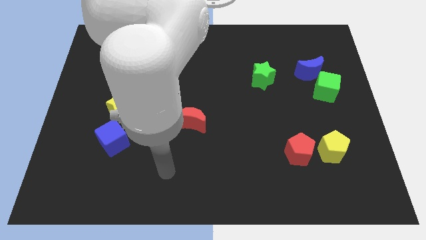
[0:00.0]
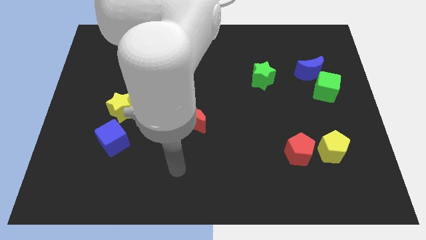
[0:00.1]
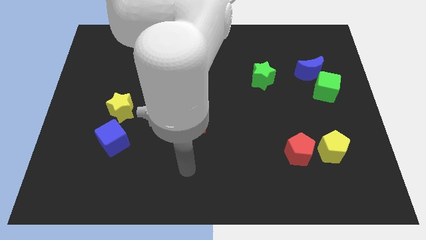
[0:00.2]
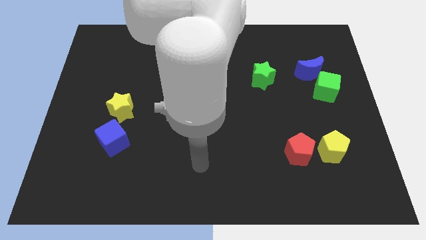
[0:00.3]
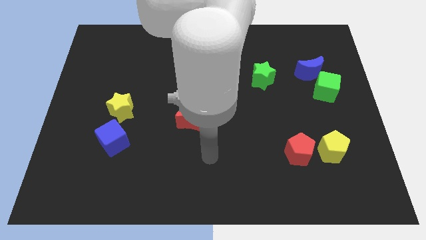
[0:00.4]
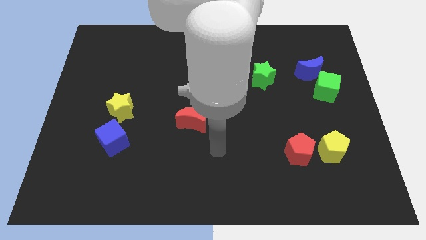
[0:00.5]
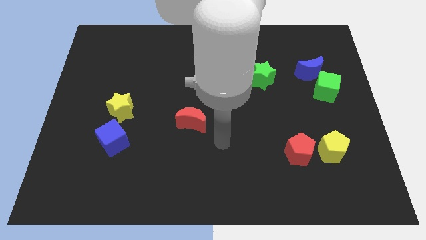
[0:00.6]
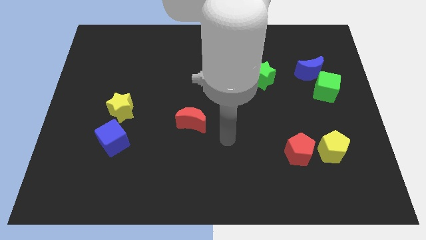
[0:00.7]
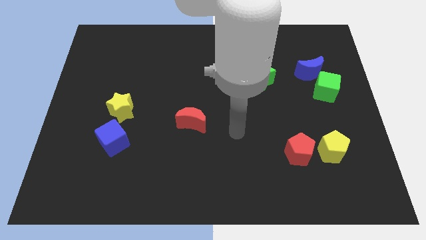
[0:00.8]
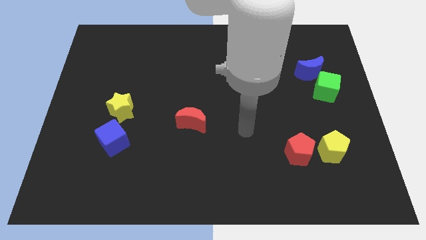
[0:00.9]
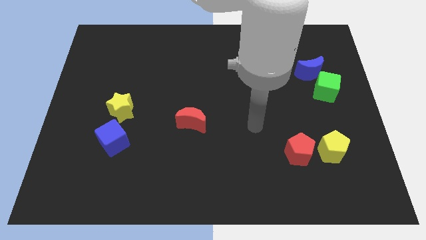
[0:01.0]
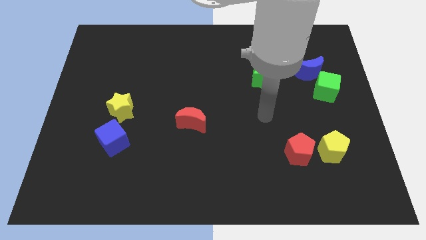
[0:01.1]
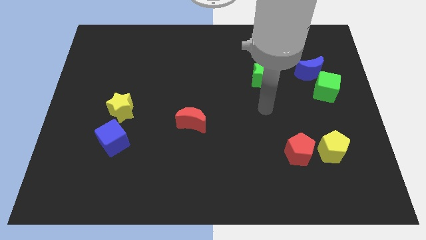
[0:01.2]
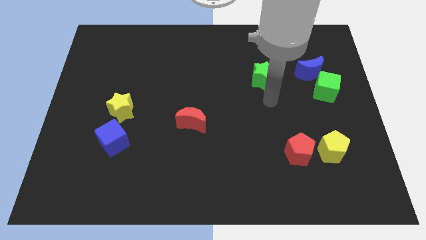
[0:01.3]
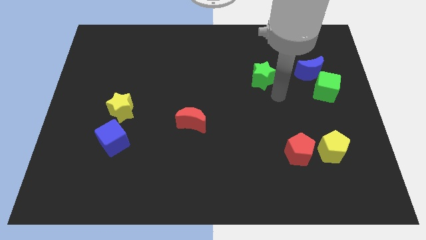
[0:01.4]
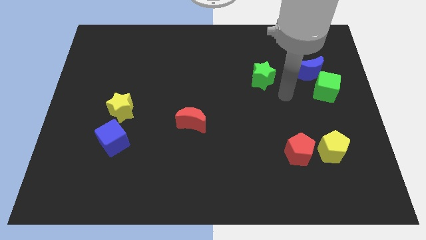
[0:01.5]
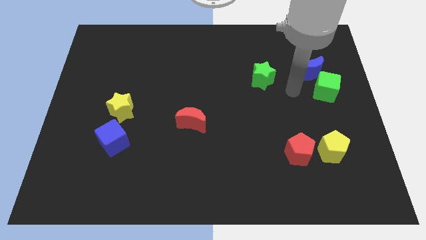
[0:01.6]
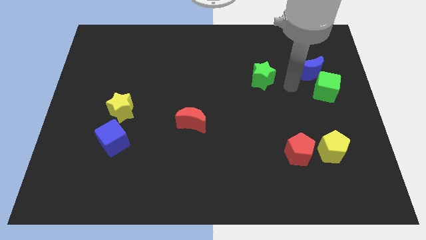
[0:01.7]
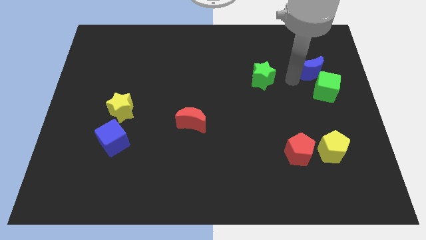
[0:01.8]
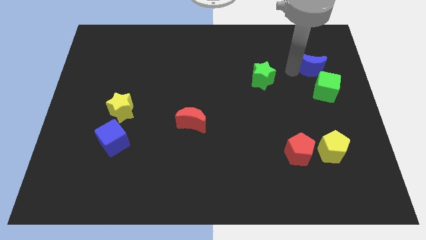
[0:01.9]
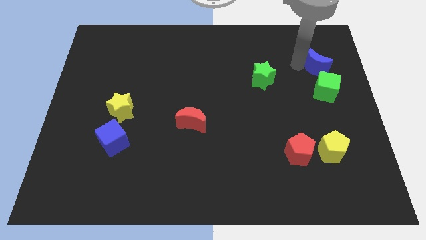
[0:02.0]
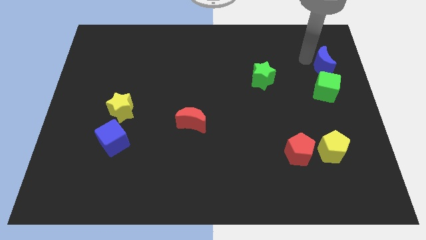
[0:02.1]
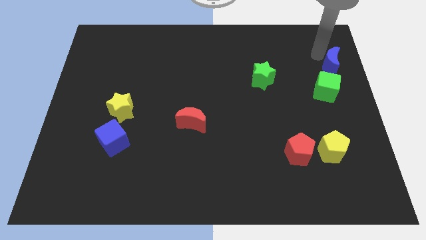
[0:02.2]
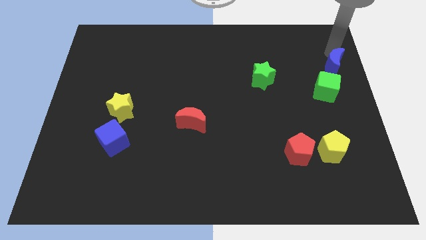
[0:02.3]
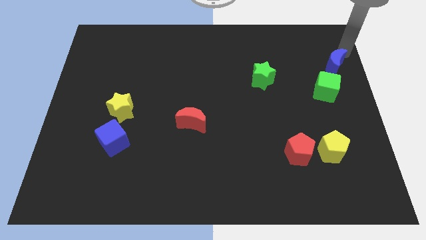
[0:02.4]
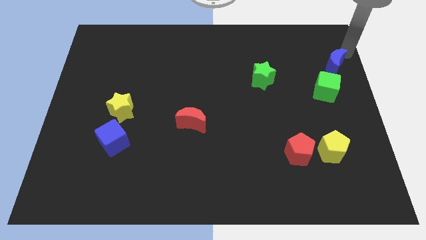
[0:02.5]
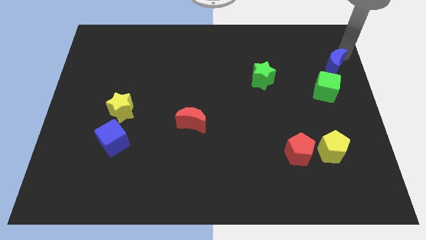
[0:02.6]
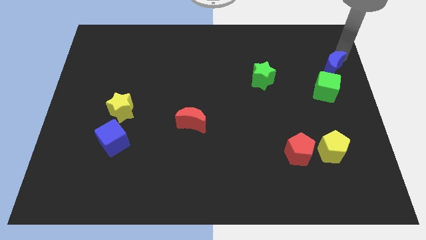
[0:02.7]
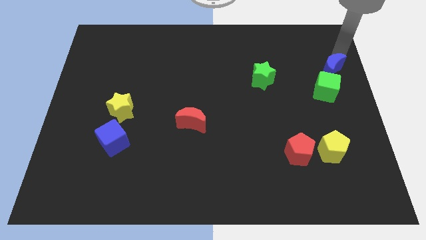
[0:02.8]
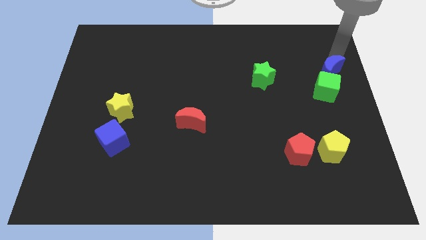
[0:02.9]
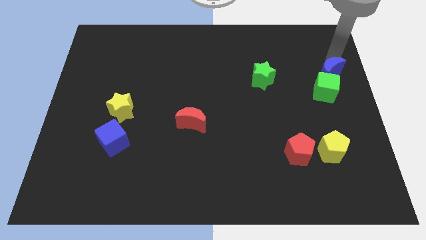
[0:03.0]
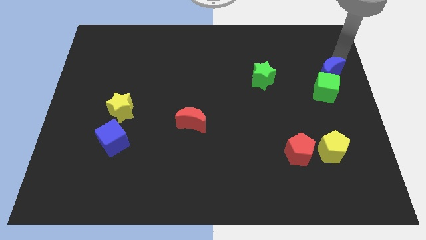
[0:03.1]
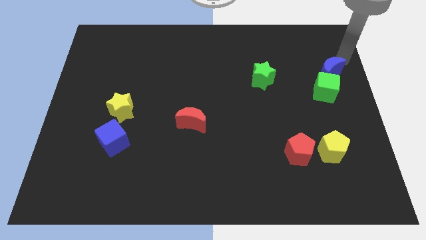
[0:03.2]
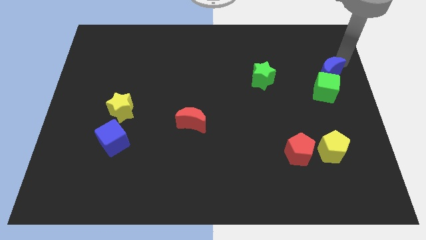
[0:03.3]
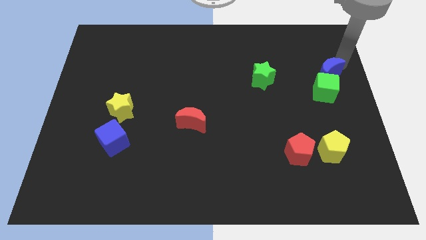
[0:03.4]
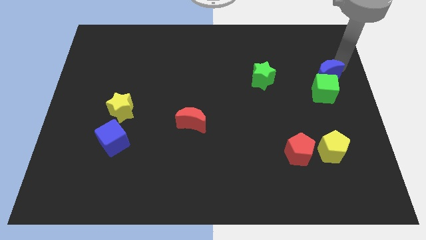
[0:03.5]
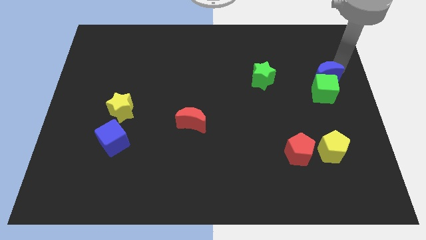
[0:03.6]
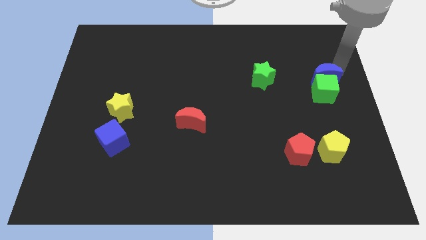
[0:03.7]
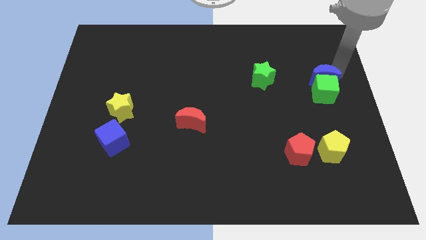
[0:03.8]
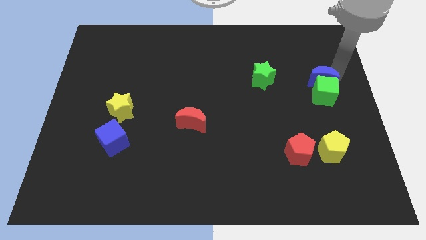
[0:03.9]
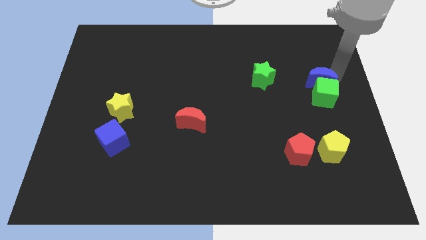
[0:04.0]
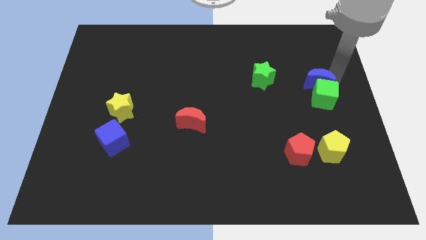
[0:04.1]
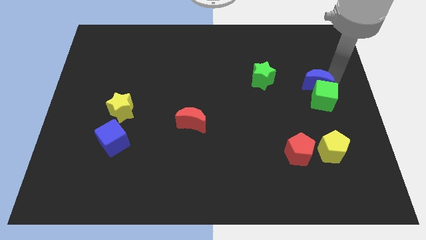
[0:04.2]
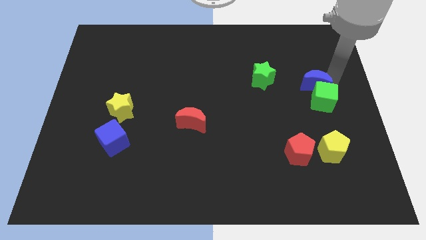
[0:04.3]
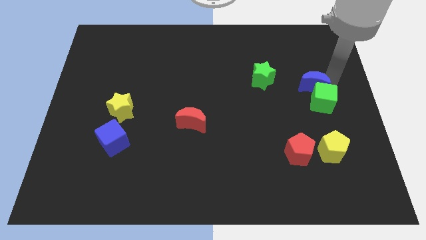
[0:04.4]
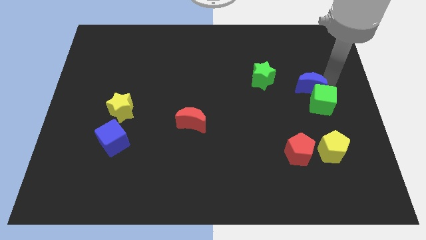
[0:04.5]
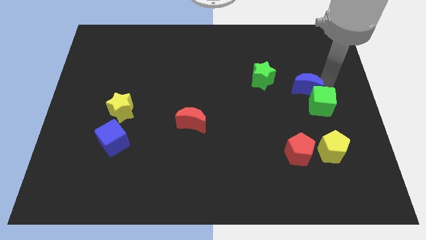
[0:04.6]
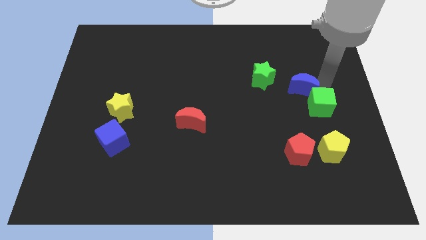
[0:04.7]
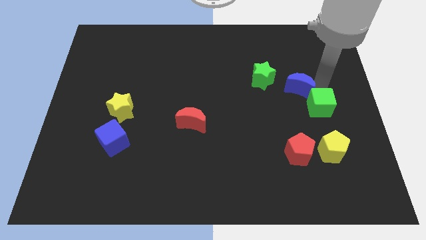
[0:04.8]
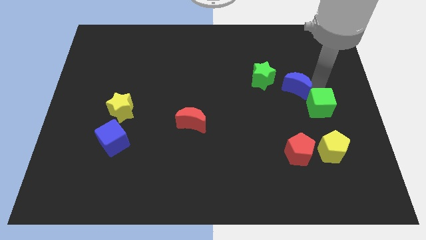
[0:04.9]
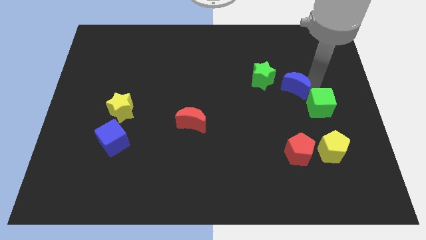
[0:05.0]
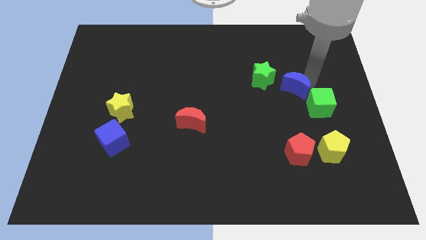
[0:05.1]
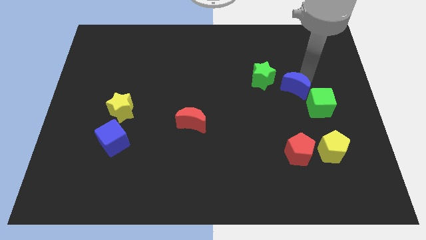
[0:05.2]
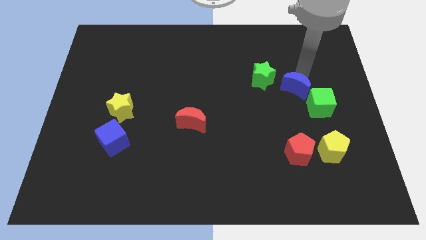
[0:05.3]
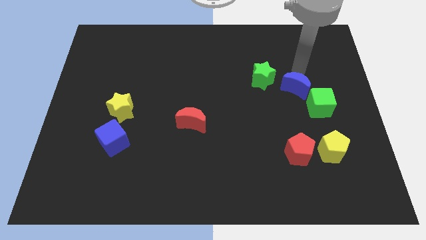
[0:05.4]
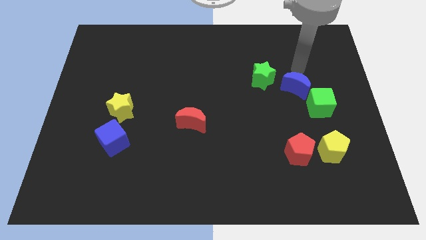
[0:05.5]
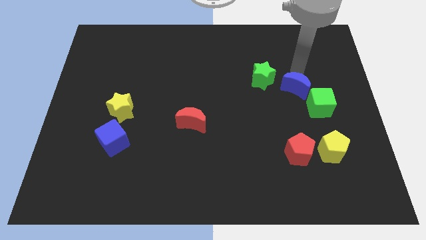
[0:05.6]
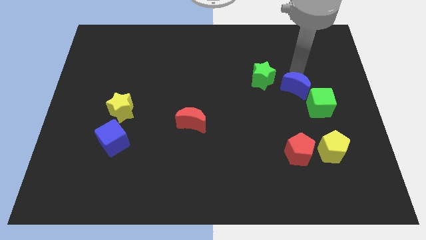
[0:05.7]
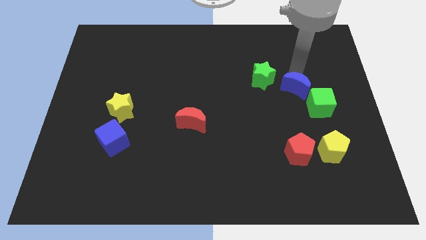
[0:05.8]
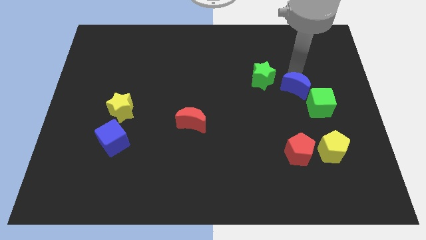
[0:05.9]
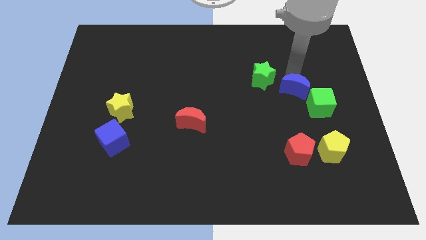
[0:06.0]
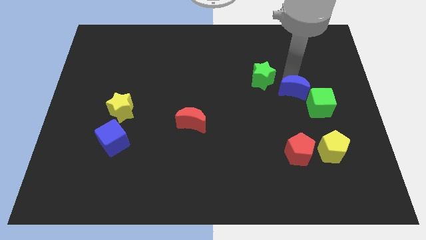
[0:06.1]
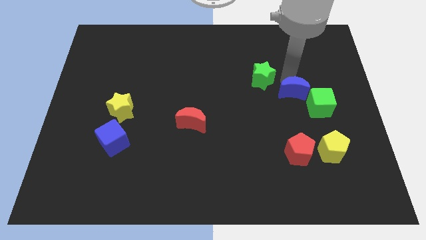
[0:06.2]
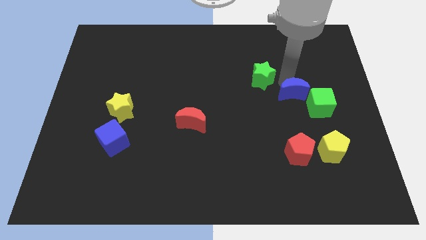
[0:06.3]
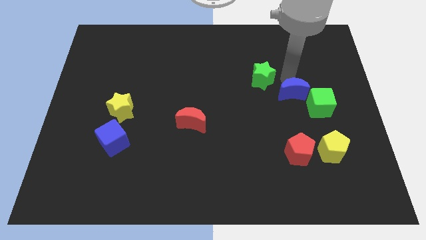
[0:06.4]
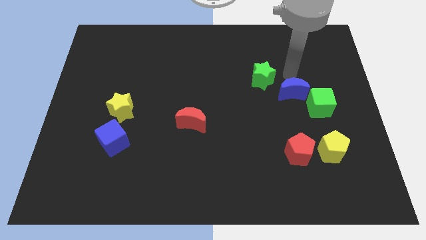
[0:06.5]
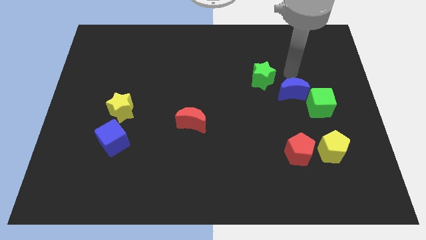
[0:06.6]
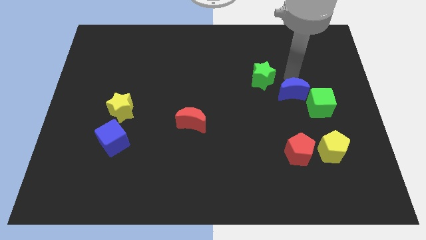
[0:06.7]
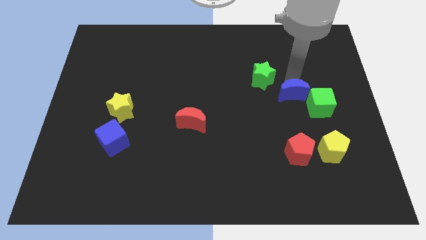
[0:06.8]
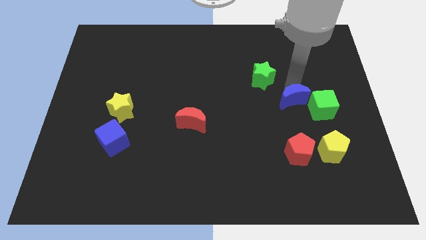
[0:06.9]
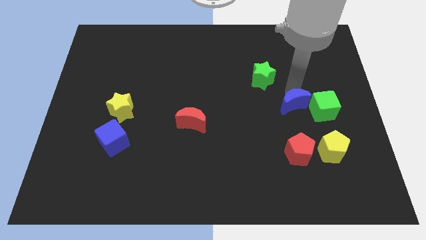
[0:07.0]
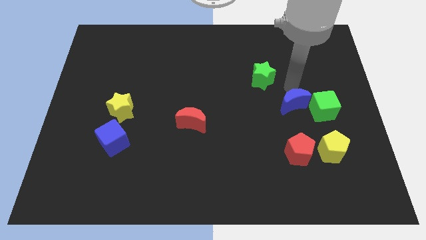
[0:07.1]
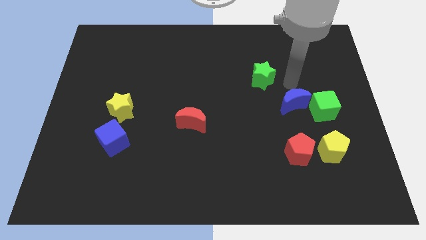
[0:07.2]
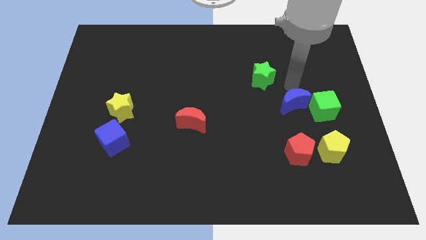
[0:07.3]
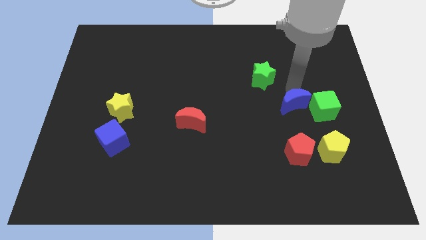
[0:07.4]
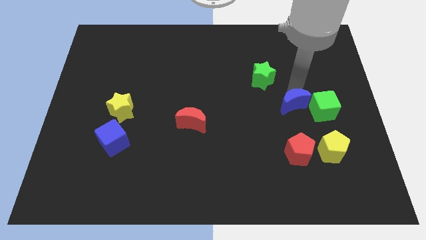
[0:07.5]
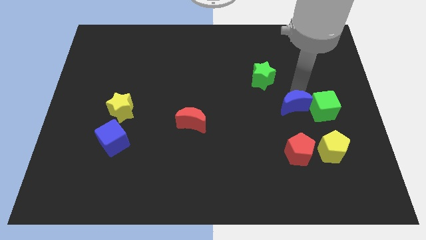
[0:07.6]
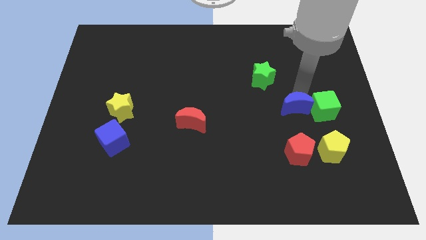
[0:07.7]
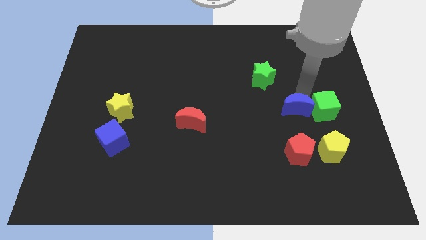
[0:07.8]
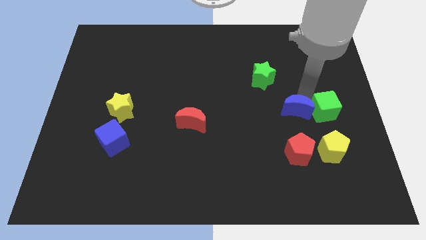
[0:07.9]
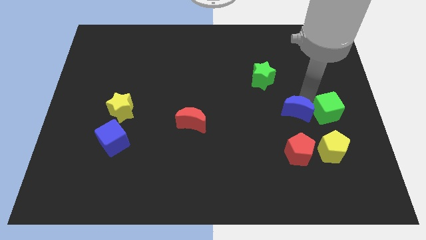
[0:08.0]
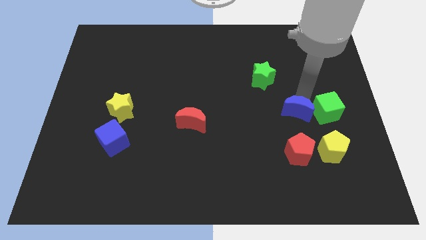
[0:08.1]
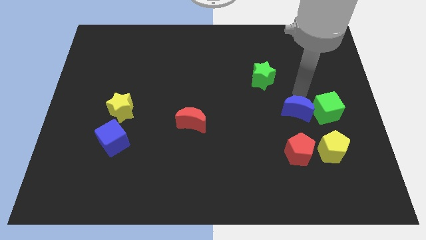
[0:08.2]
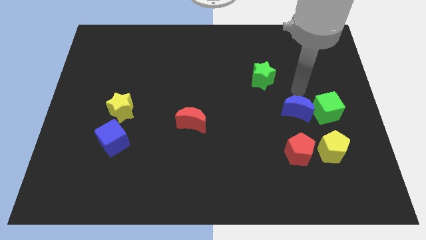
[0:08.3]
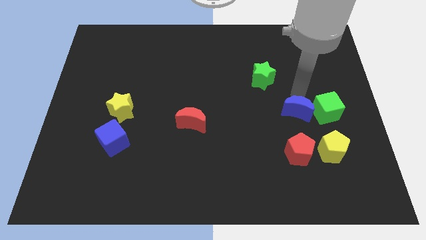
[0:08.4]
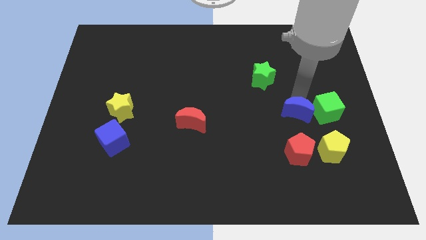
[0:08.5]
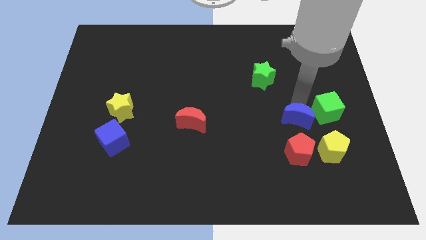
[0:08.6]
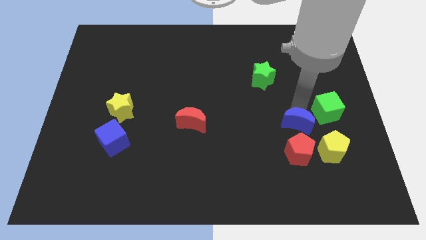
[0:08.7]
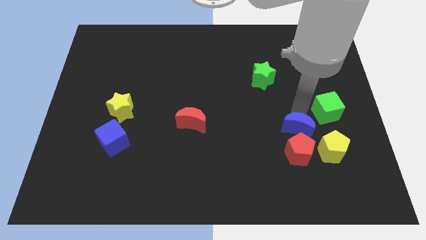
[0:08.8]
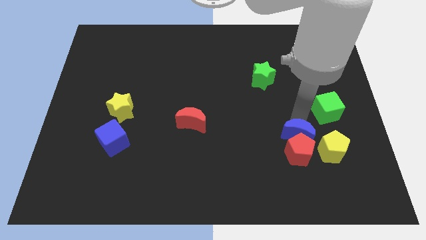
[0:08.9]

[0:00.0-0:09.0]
push the blue moon to the red pentagon
